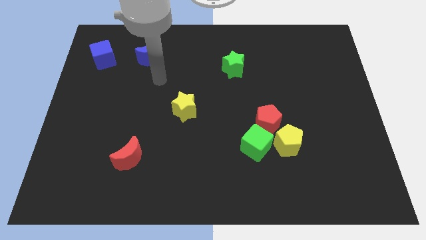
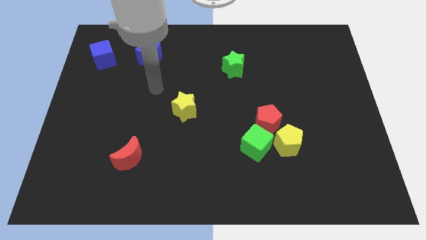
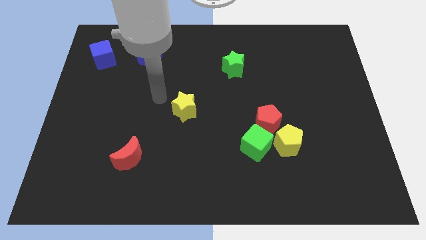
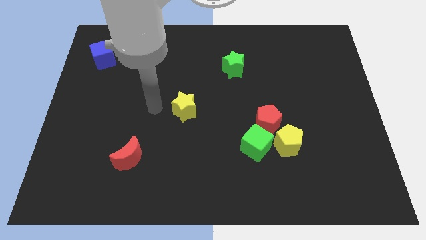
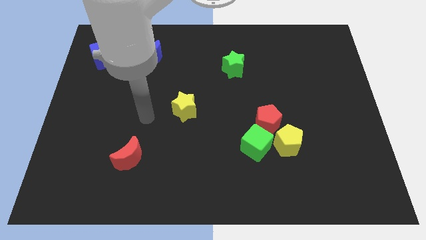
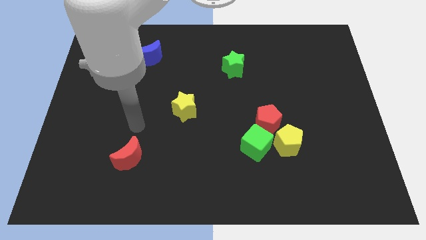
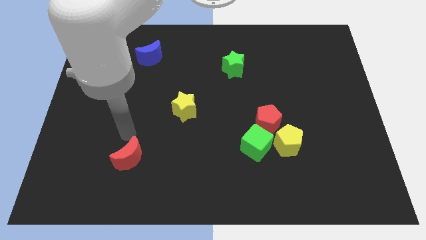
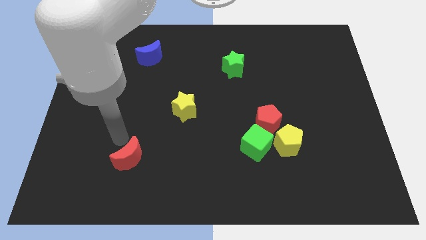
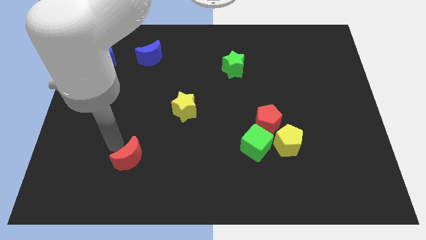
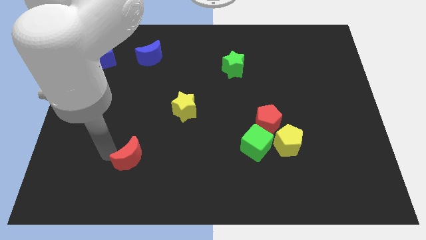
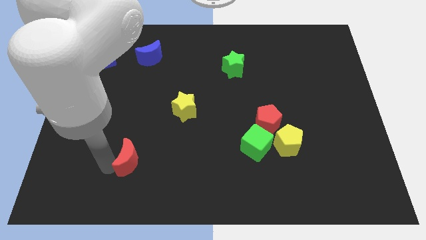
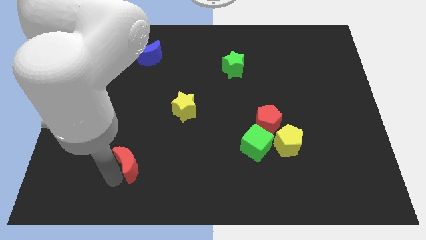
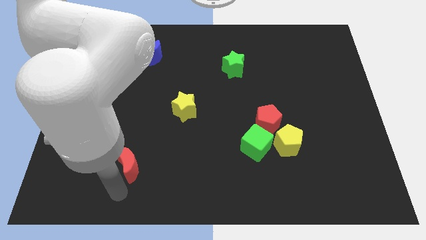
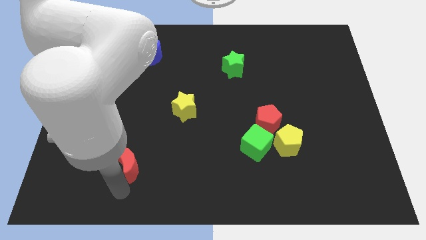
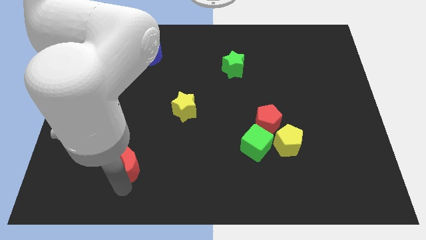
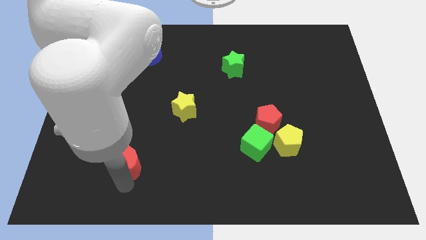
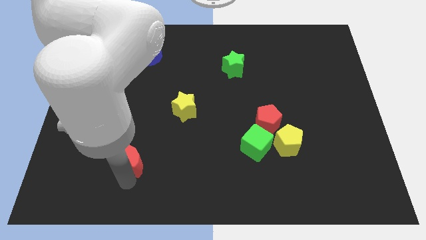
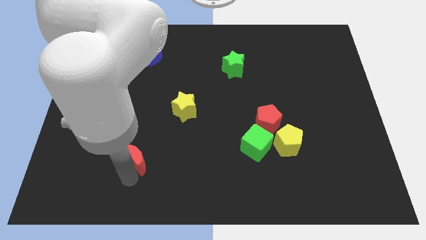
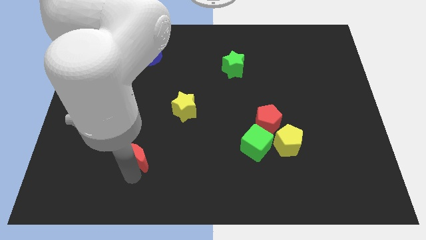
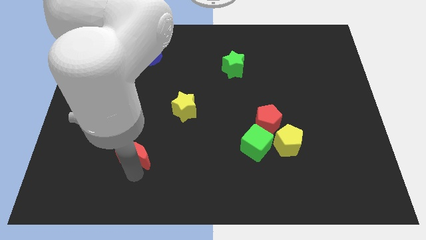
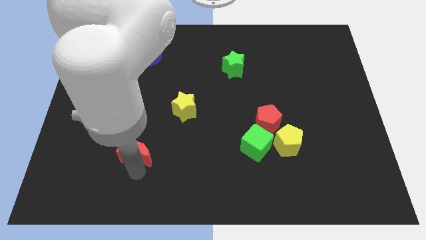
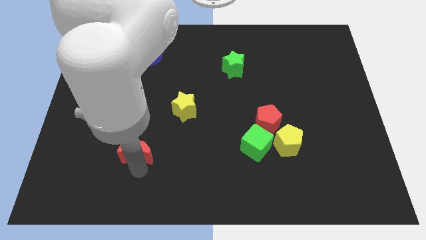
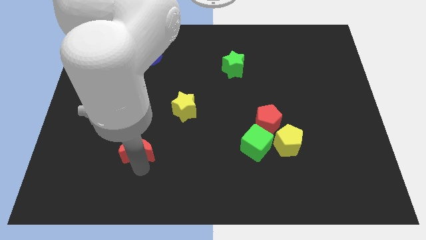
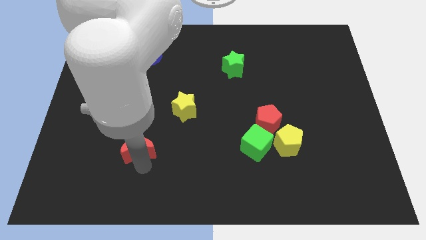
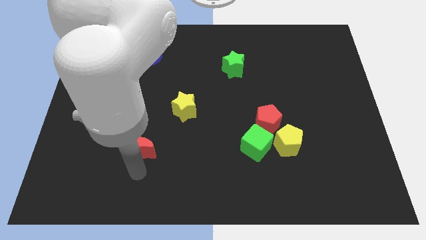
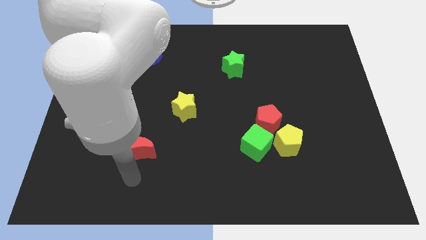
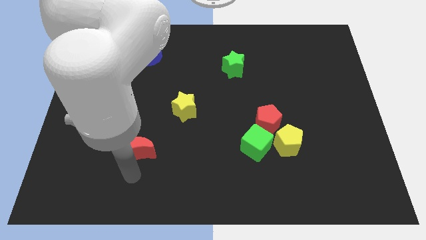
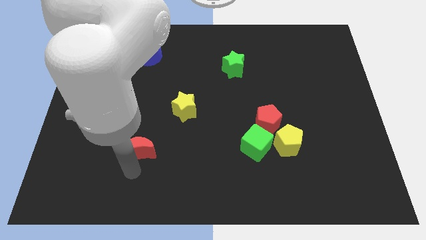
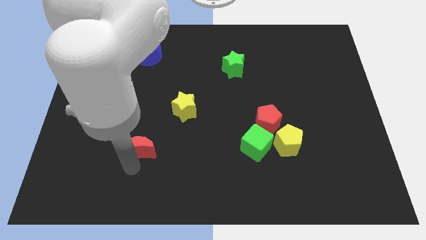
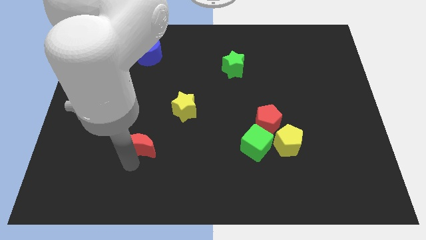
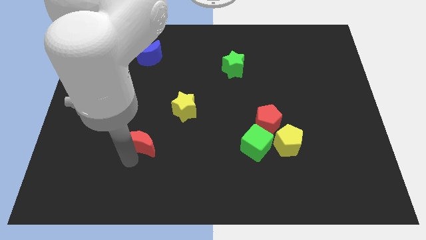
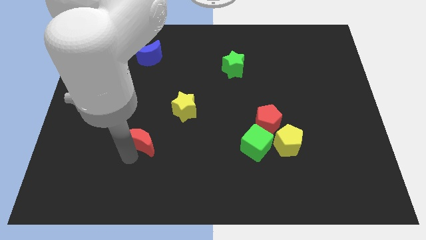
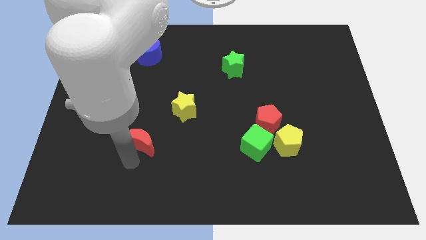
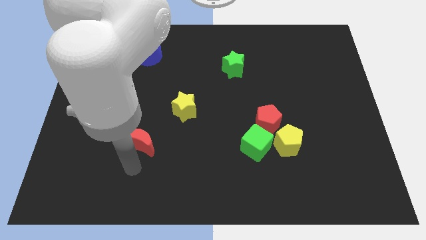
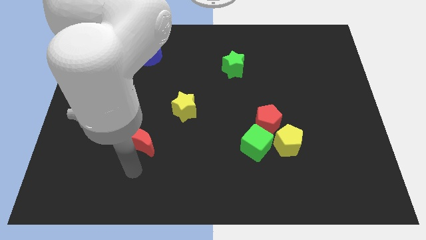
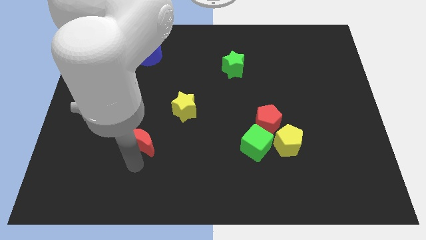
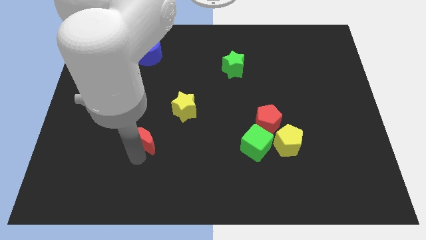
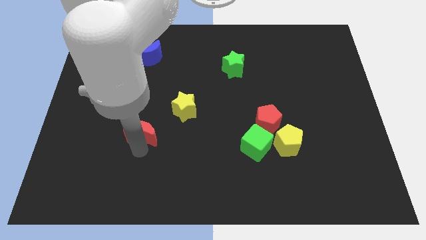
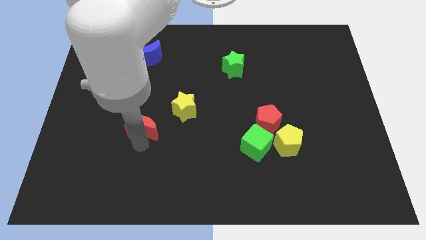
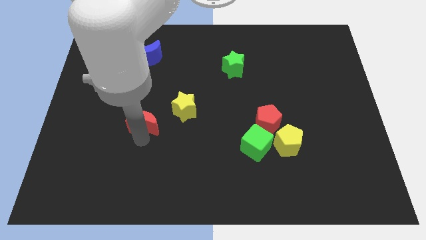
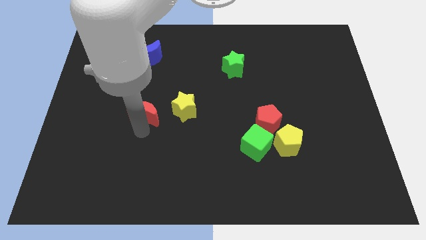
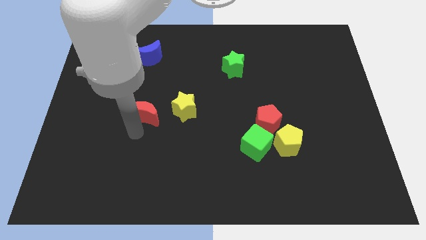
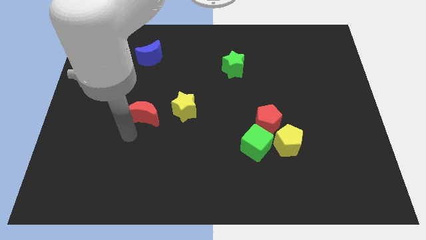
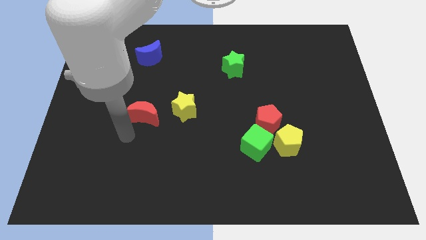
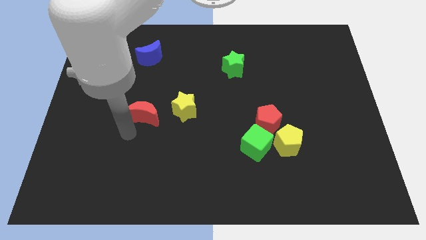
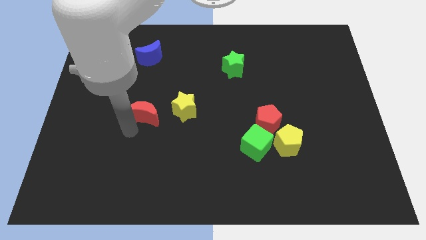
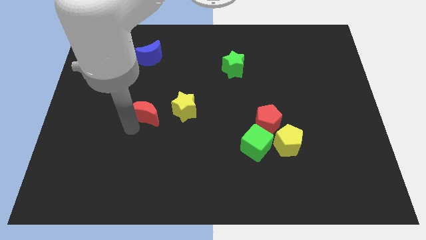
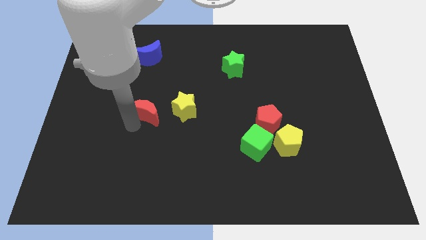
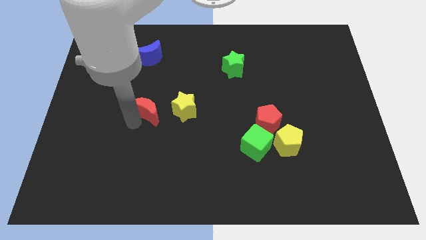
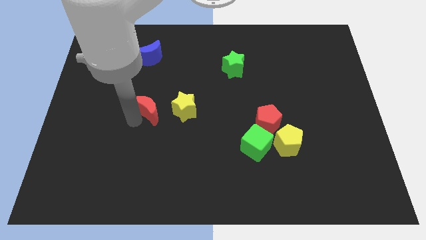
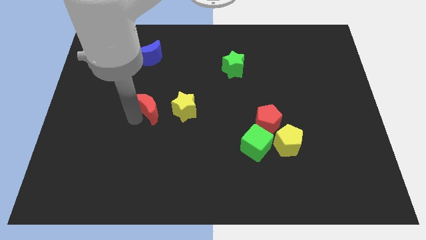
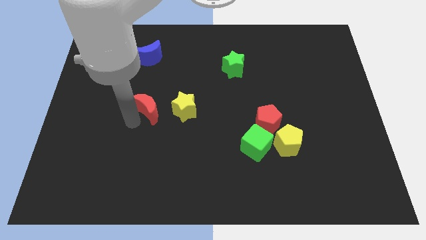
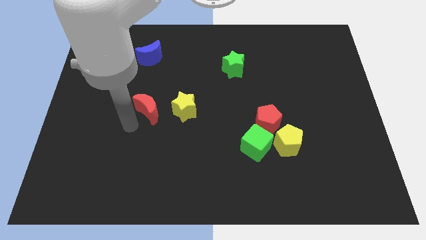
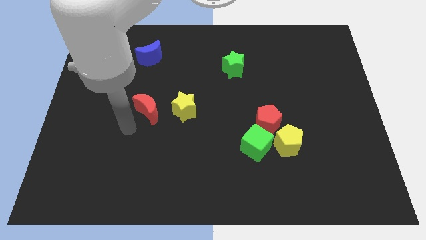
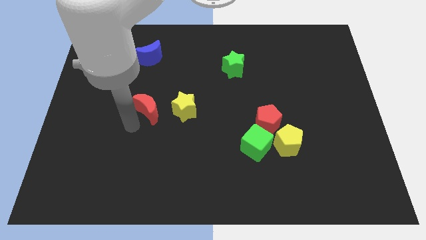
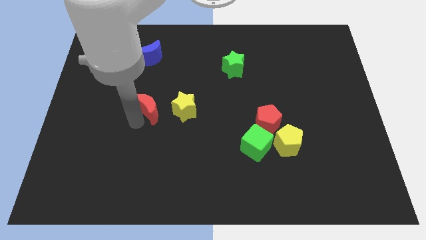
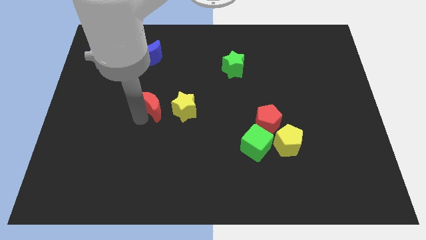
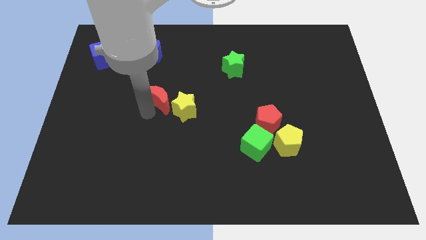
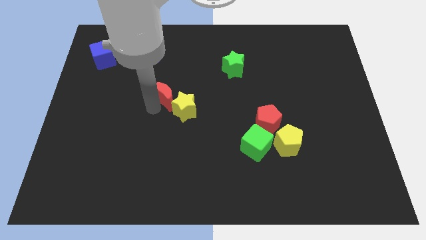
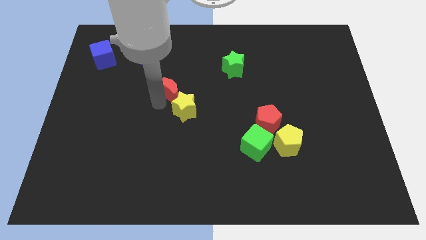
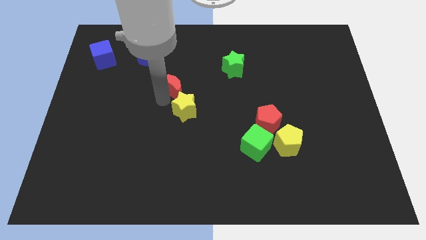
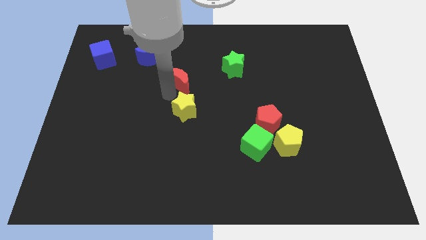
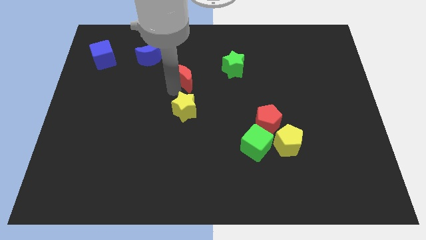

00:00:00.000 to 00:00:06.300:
put the red moon to the left of the green star

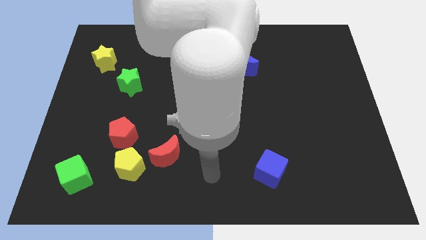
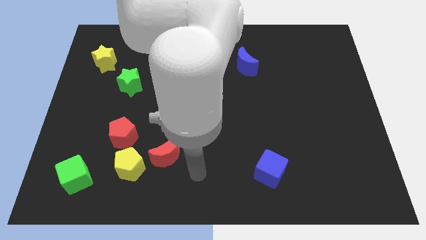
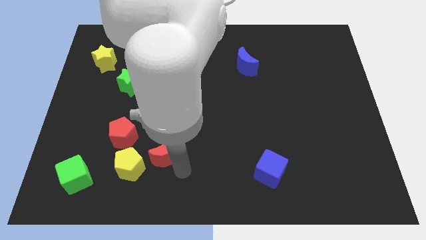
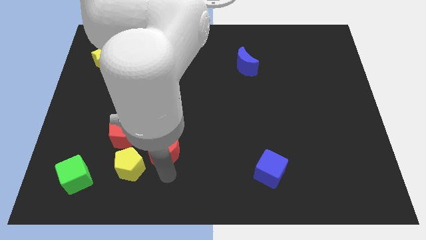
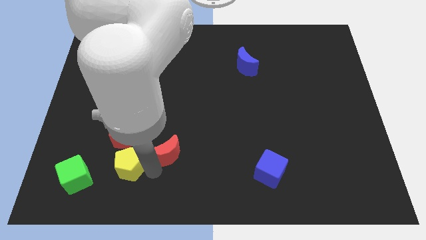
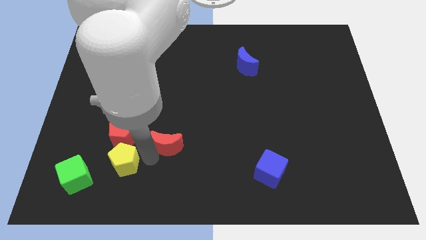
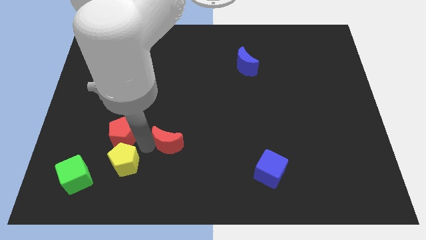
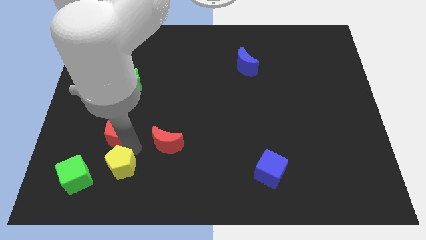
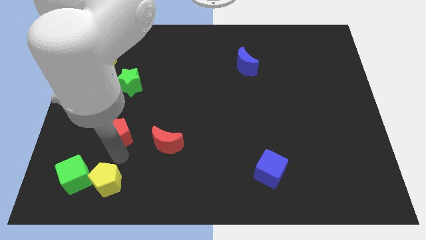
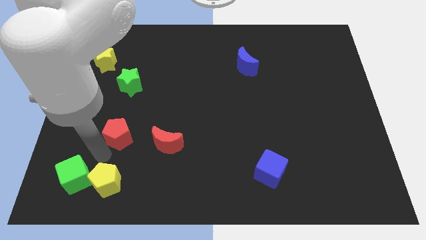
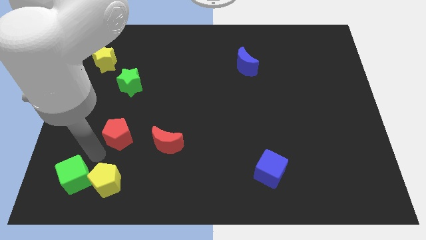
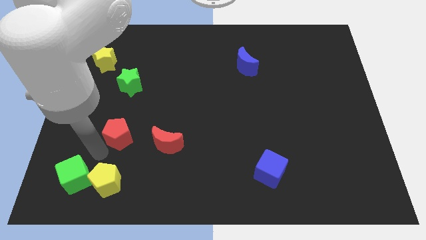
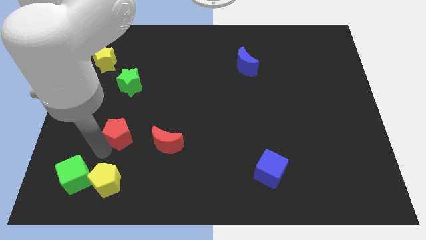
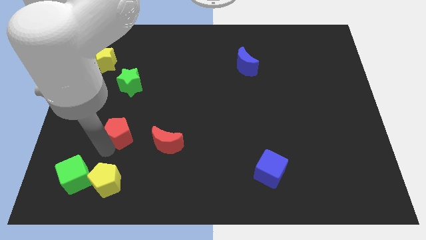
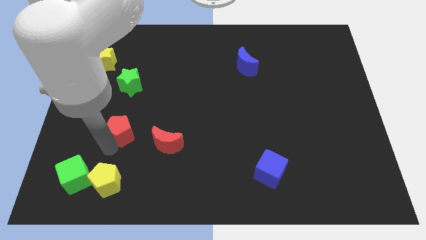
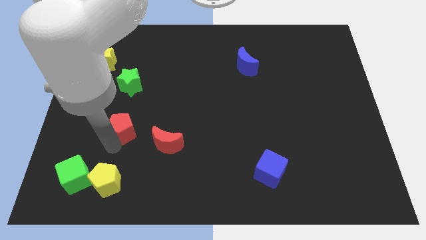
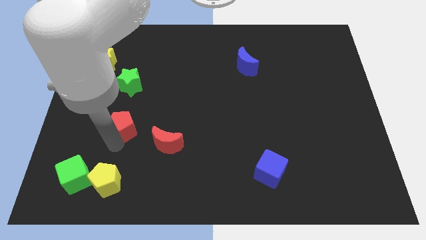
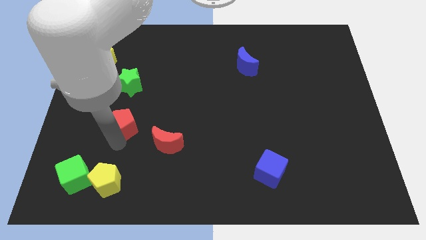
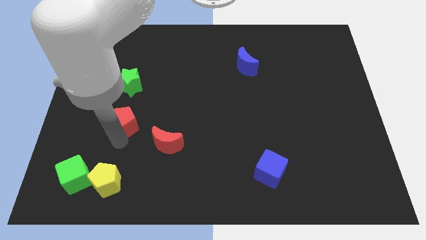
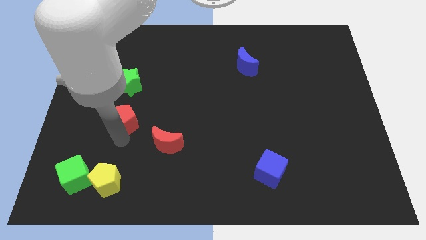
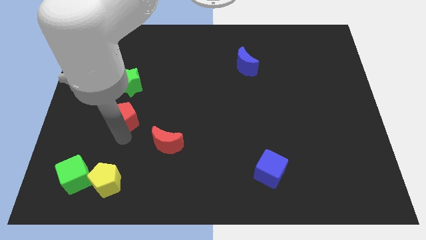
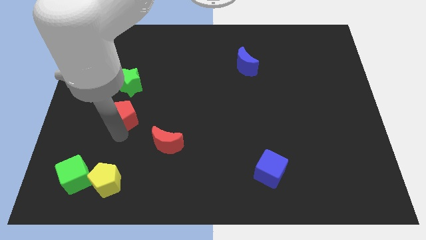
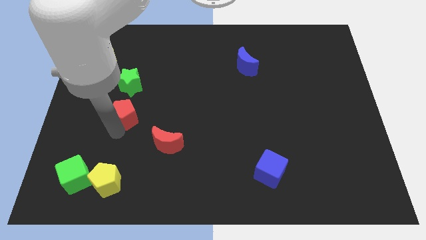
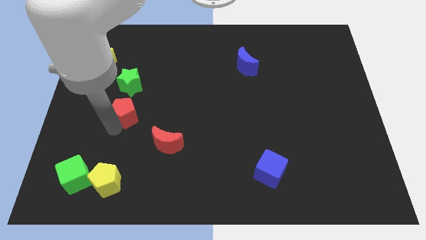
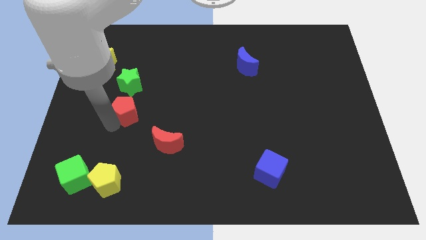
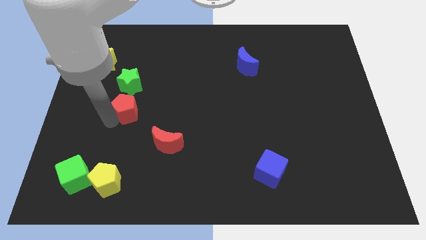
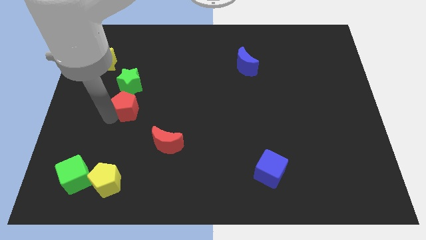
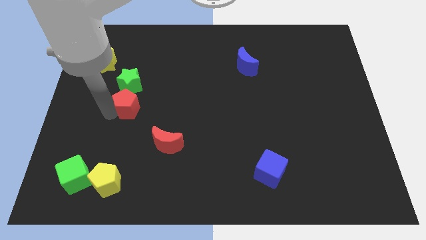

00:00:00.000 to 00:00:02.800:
put the red pentagon to the bottom right side of the green star
